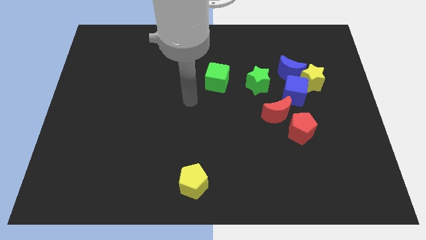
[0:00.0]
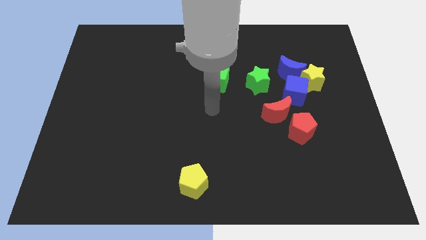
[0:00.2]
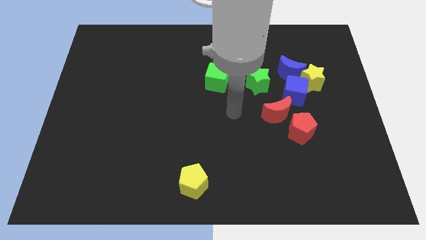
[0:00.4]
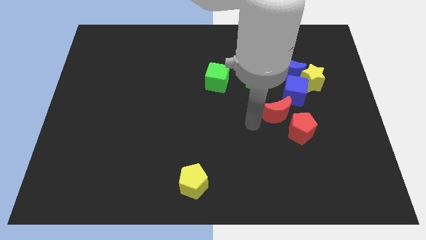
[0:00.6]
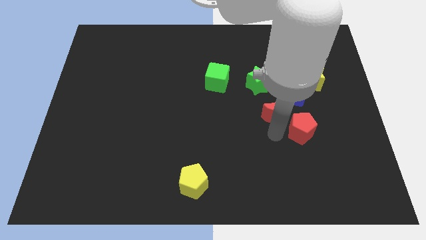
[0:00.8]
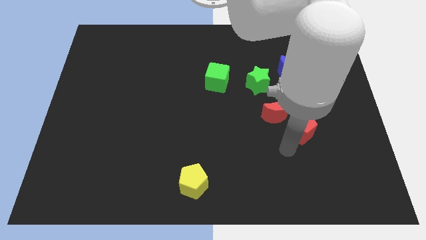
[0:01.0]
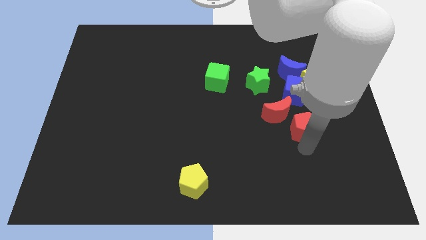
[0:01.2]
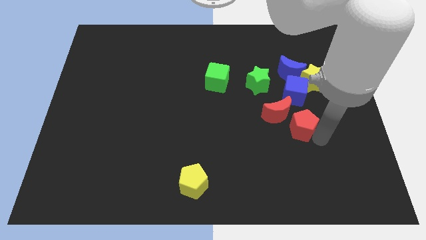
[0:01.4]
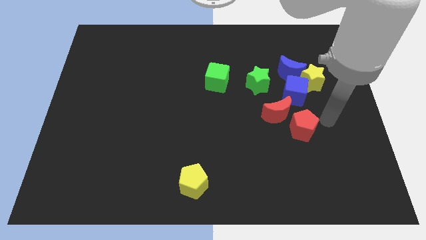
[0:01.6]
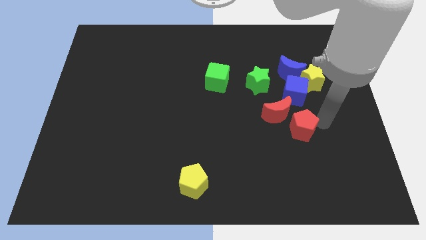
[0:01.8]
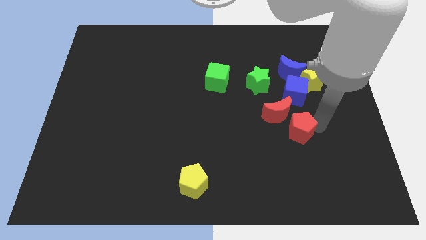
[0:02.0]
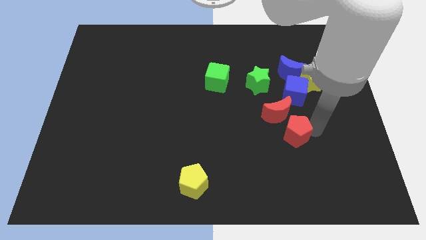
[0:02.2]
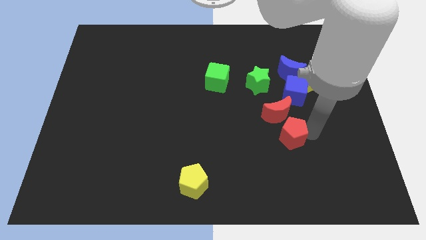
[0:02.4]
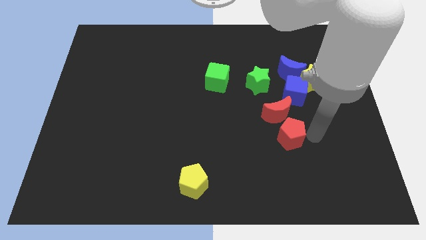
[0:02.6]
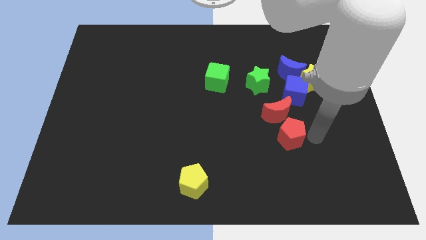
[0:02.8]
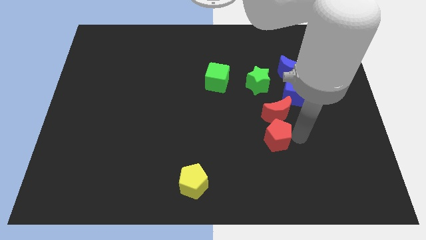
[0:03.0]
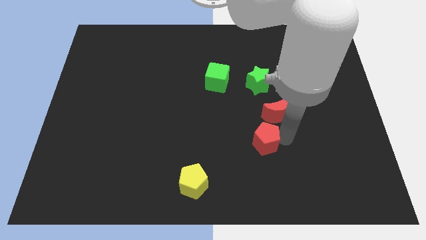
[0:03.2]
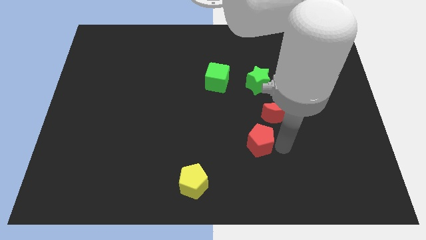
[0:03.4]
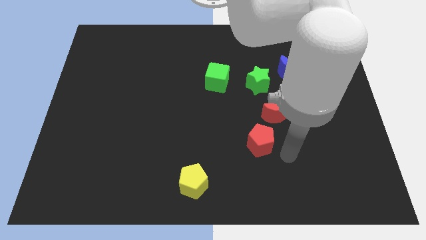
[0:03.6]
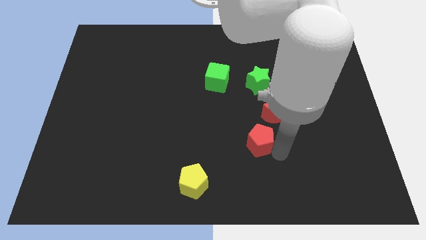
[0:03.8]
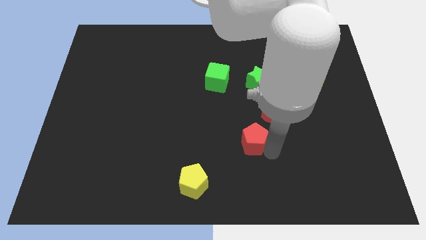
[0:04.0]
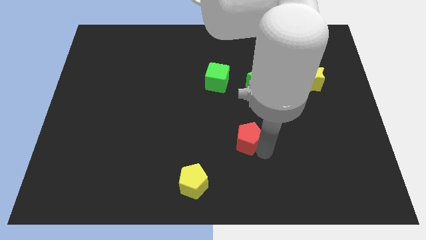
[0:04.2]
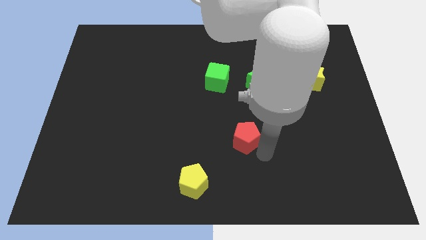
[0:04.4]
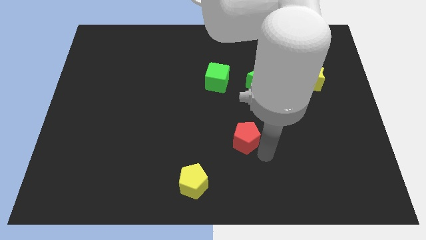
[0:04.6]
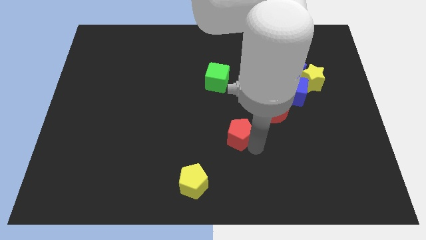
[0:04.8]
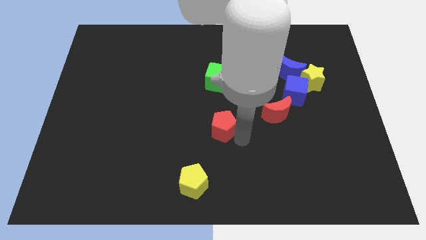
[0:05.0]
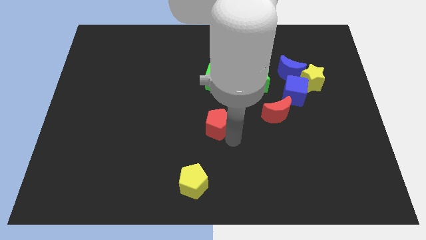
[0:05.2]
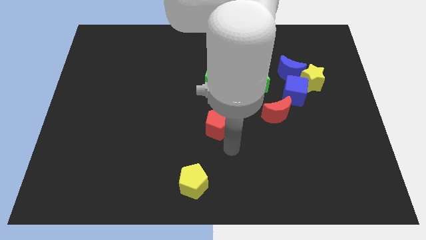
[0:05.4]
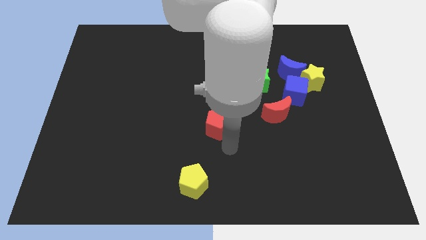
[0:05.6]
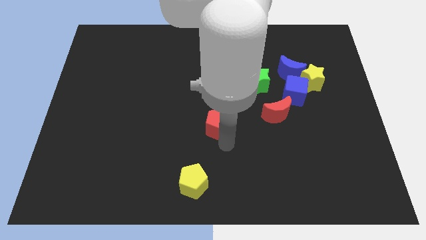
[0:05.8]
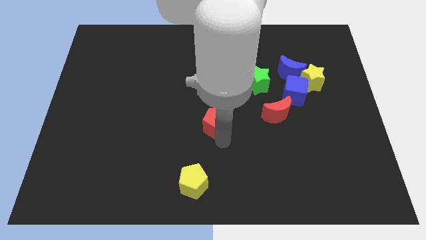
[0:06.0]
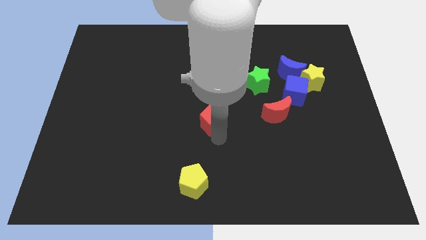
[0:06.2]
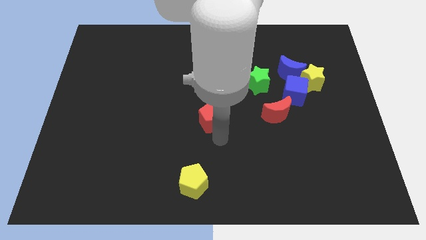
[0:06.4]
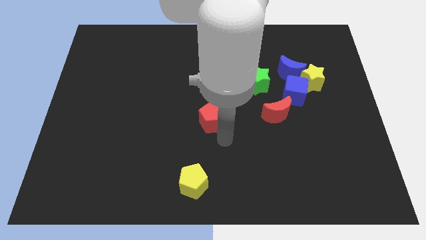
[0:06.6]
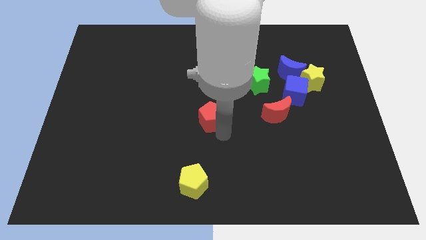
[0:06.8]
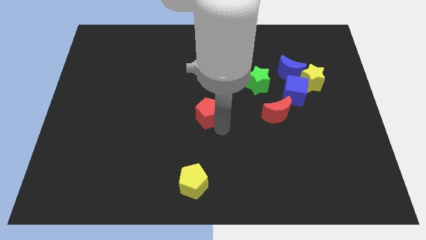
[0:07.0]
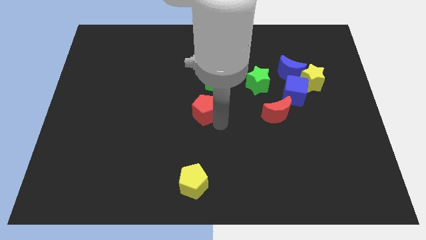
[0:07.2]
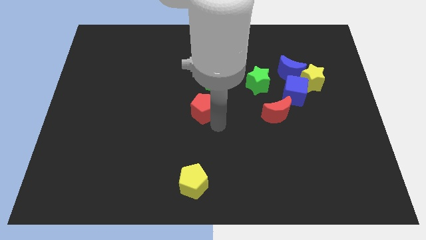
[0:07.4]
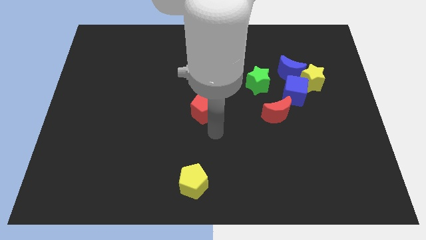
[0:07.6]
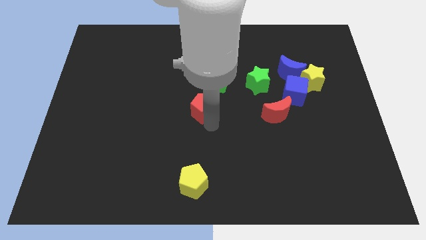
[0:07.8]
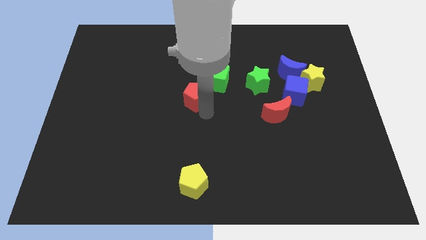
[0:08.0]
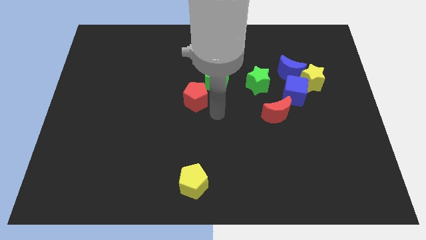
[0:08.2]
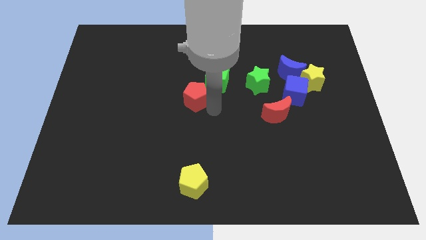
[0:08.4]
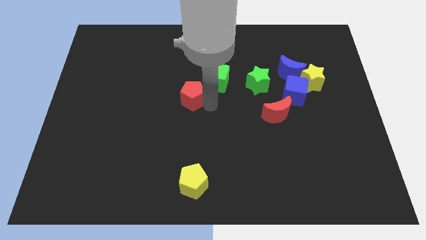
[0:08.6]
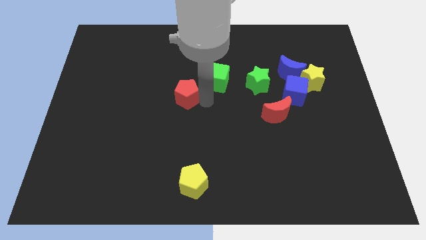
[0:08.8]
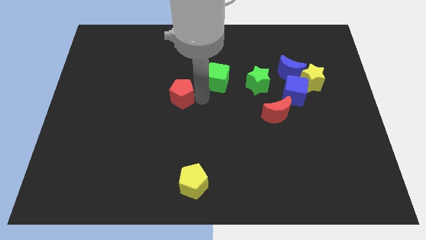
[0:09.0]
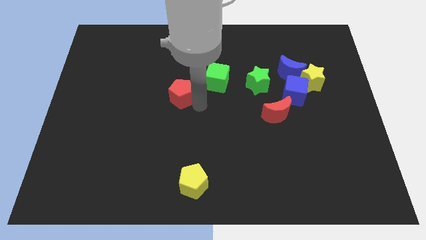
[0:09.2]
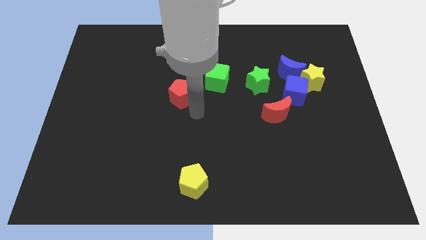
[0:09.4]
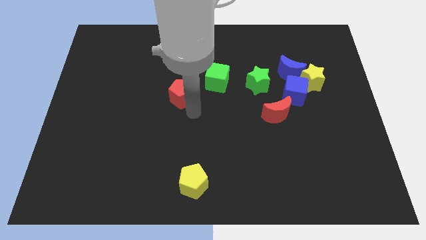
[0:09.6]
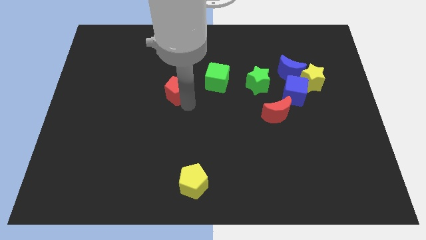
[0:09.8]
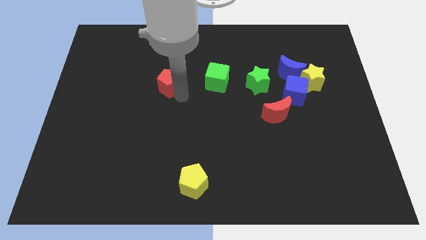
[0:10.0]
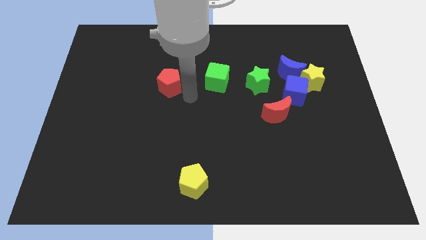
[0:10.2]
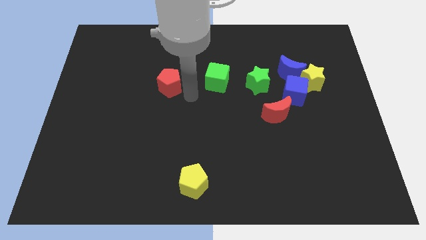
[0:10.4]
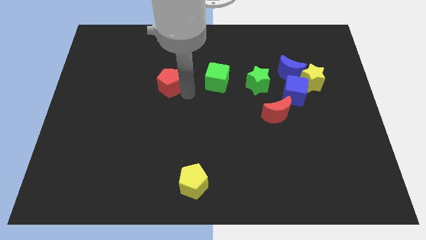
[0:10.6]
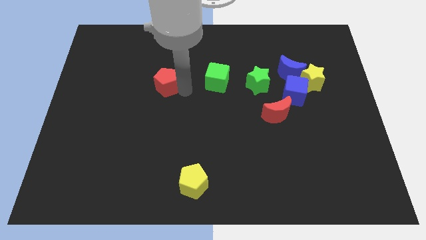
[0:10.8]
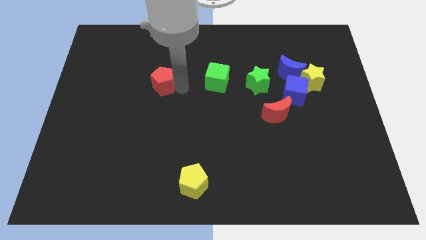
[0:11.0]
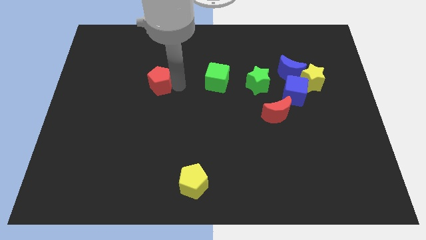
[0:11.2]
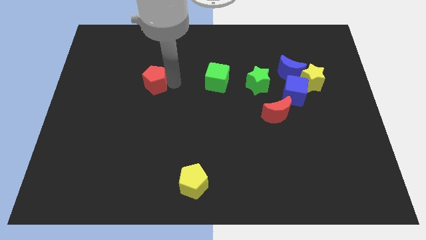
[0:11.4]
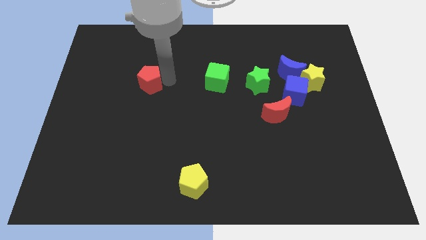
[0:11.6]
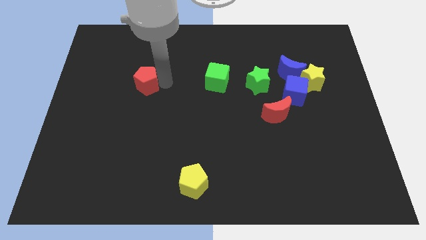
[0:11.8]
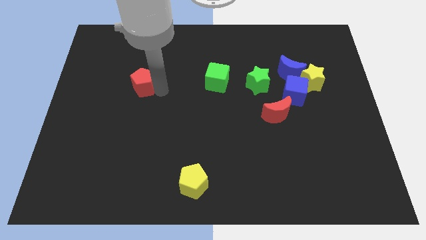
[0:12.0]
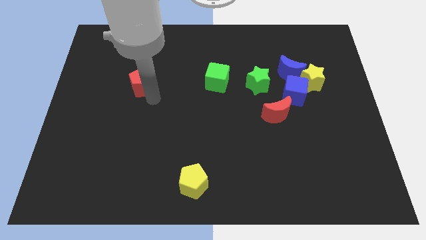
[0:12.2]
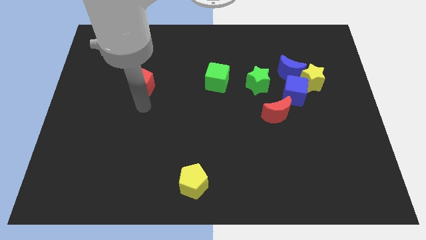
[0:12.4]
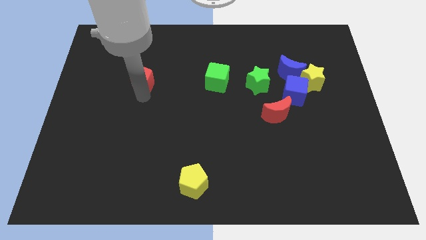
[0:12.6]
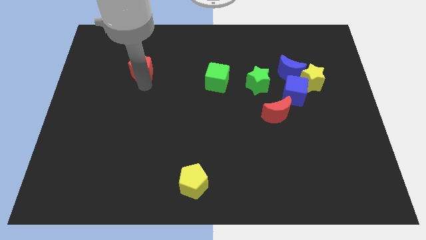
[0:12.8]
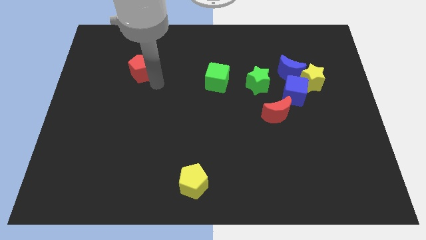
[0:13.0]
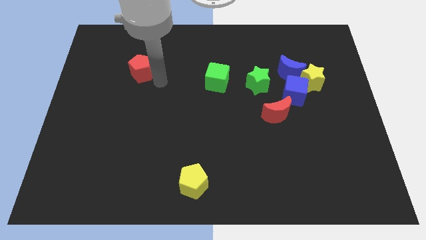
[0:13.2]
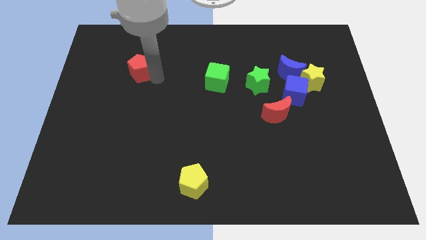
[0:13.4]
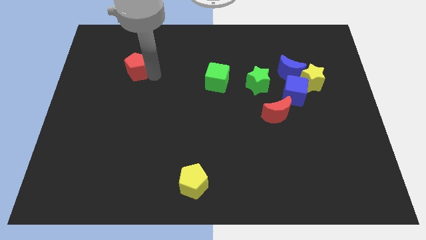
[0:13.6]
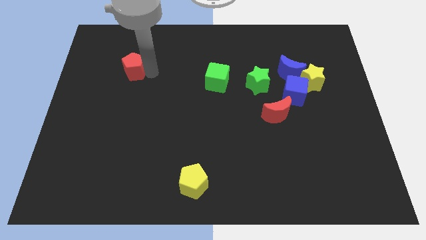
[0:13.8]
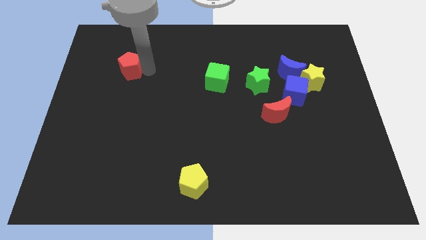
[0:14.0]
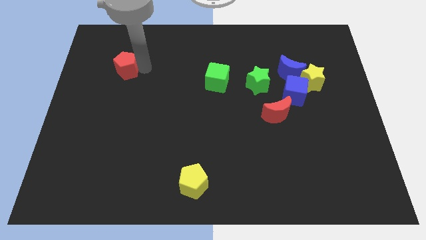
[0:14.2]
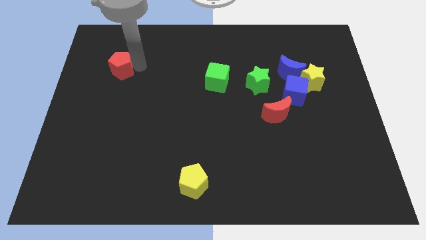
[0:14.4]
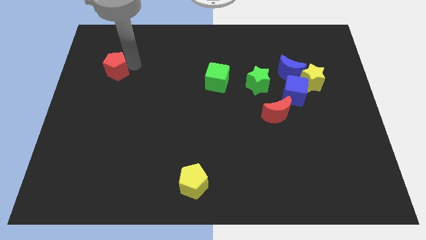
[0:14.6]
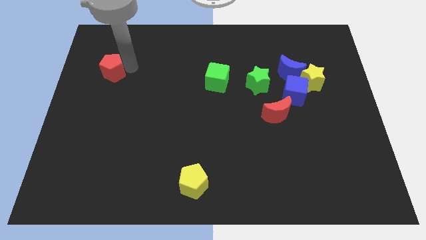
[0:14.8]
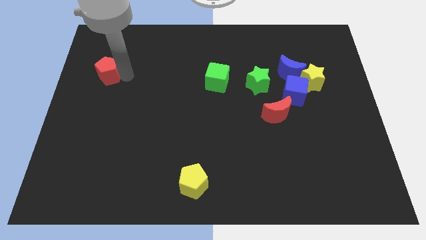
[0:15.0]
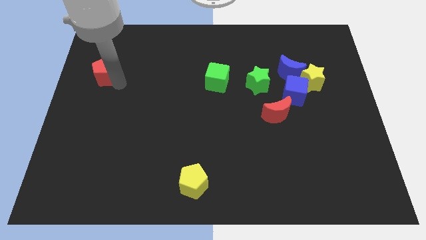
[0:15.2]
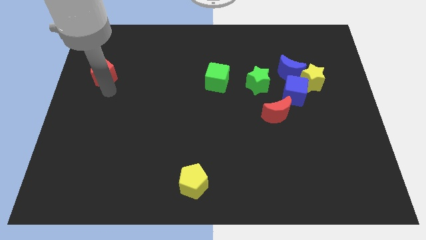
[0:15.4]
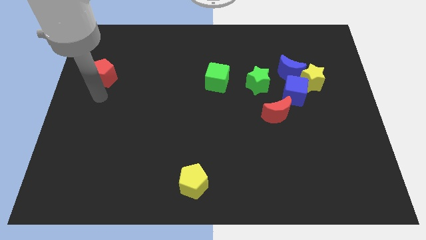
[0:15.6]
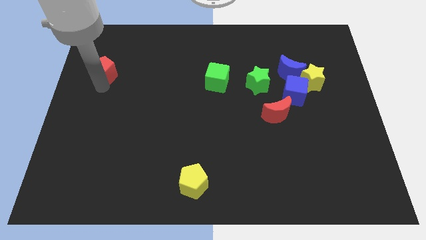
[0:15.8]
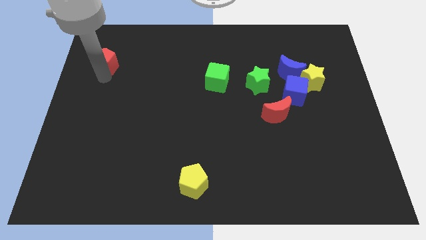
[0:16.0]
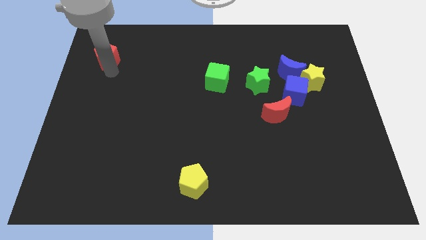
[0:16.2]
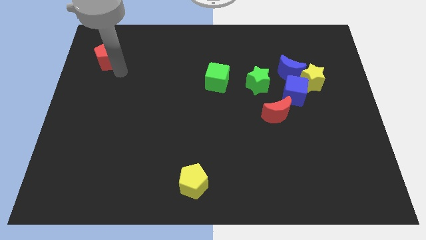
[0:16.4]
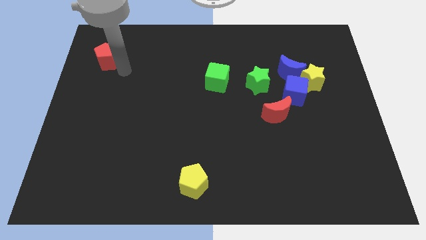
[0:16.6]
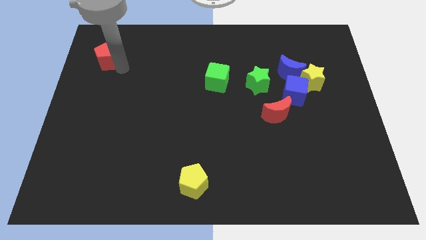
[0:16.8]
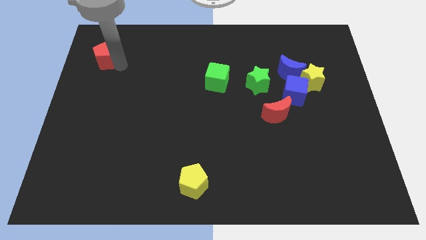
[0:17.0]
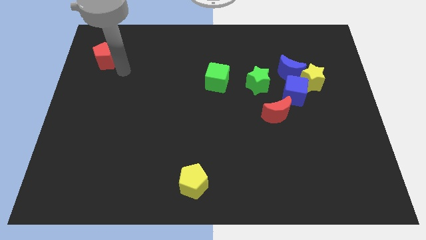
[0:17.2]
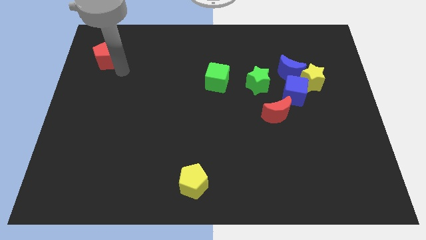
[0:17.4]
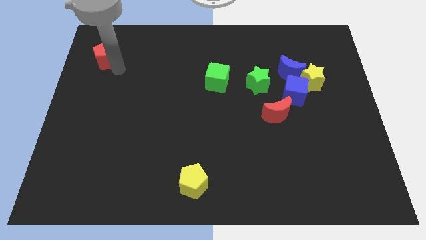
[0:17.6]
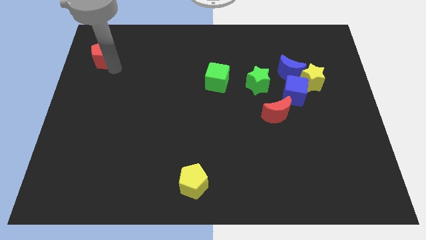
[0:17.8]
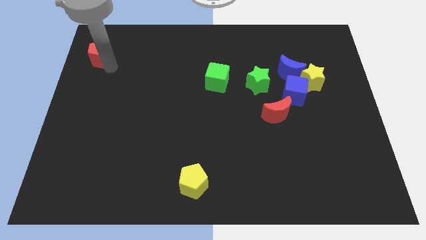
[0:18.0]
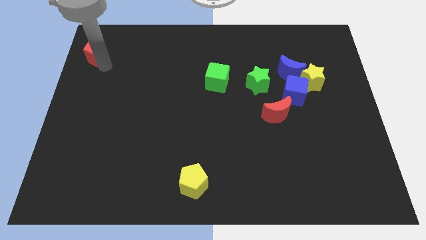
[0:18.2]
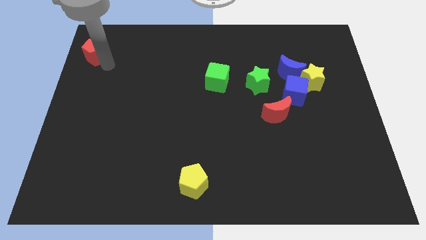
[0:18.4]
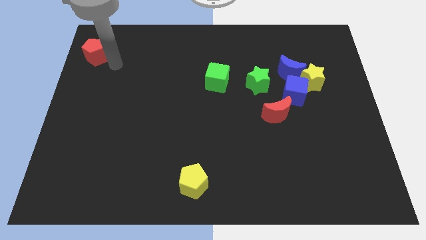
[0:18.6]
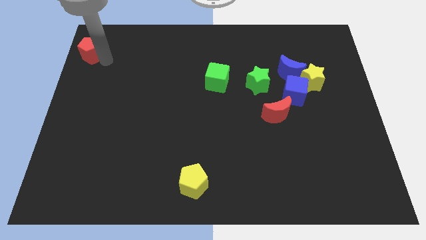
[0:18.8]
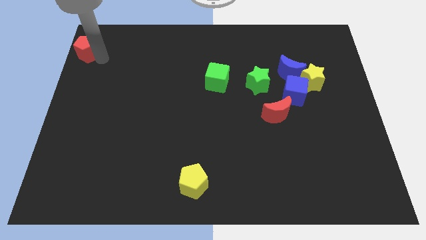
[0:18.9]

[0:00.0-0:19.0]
put the red pentagon to the top left corner
